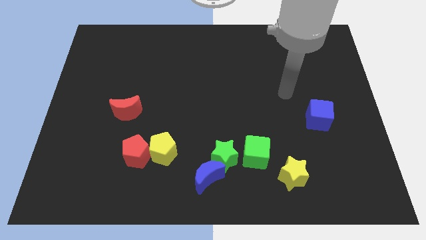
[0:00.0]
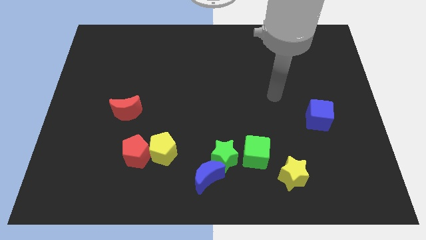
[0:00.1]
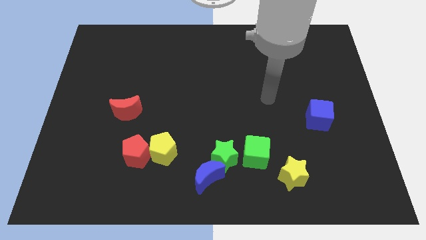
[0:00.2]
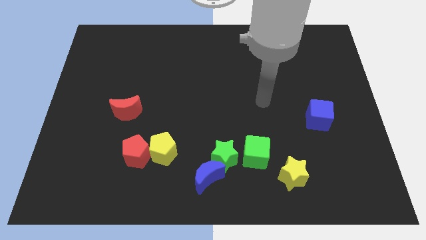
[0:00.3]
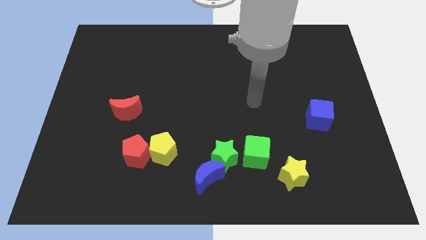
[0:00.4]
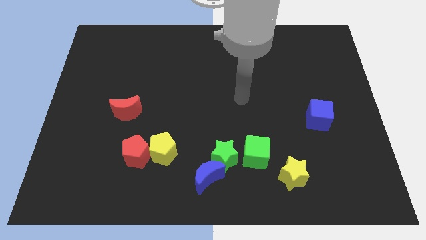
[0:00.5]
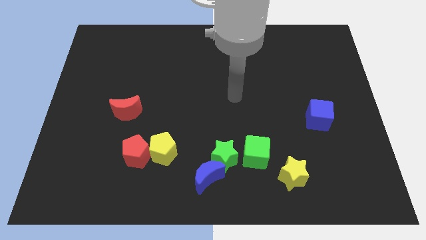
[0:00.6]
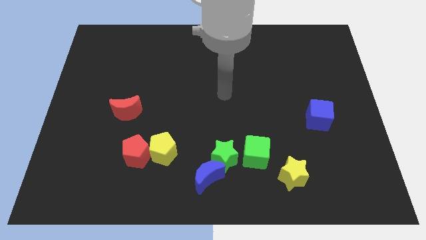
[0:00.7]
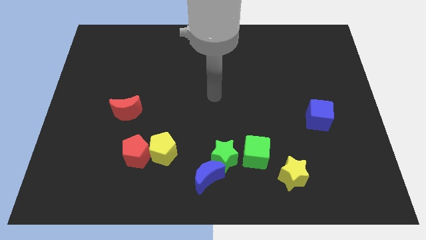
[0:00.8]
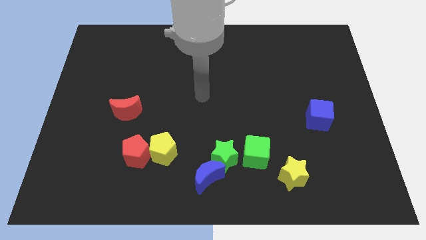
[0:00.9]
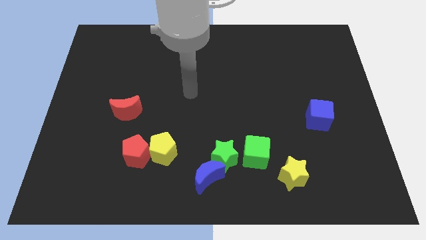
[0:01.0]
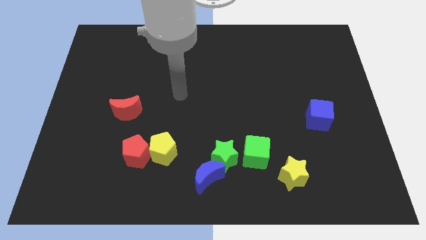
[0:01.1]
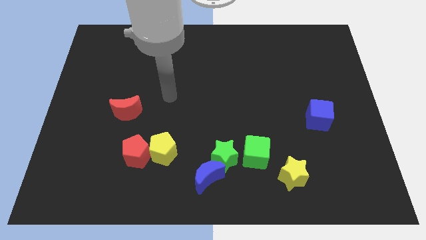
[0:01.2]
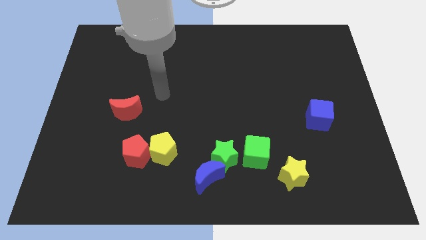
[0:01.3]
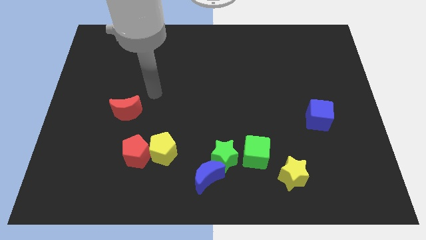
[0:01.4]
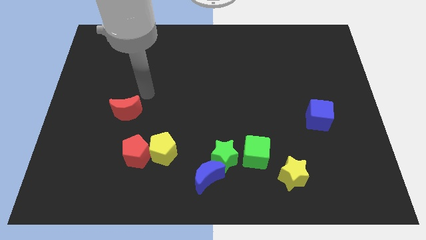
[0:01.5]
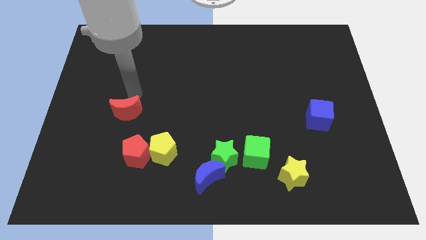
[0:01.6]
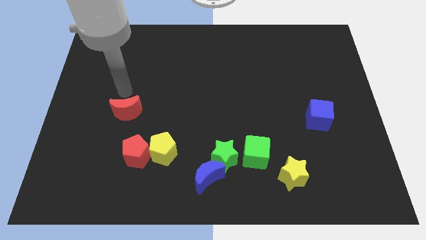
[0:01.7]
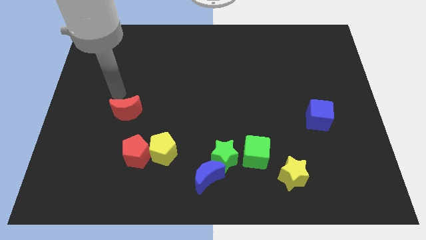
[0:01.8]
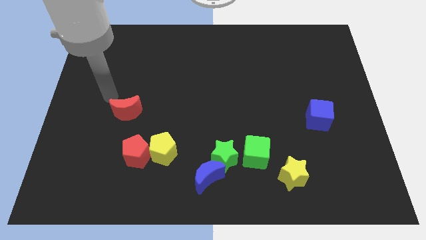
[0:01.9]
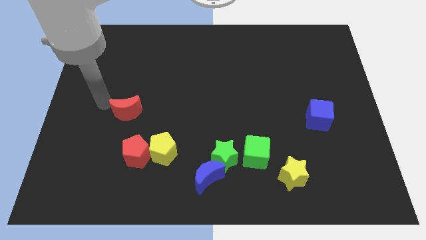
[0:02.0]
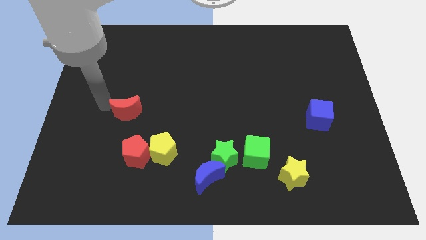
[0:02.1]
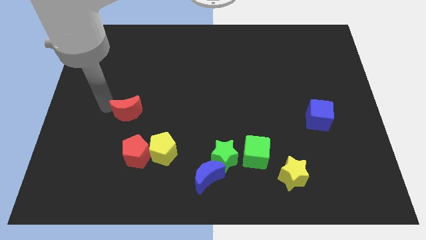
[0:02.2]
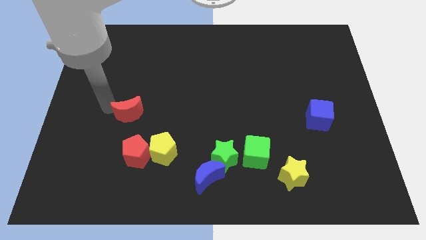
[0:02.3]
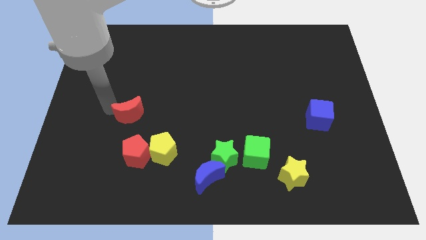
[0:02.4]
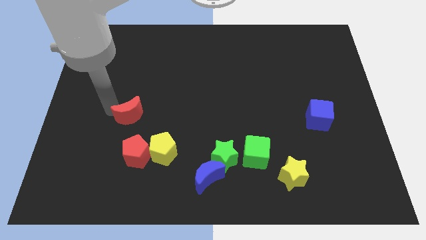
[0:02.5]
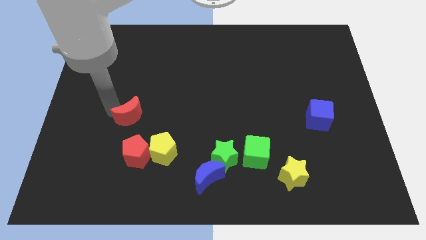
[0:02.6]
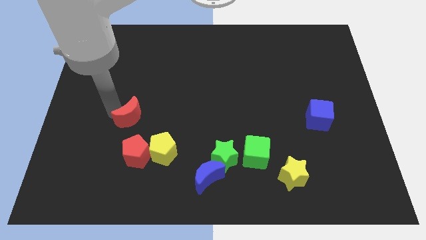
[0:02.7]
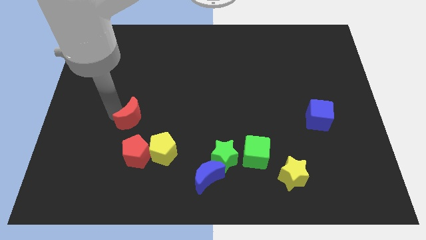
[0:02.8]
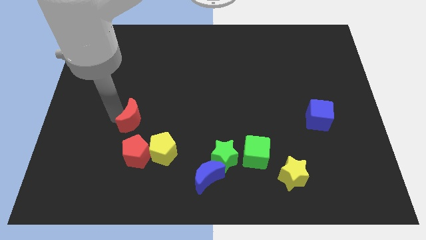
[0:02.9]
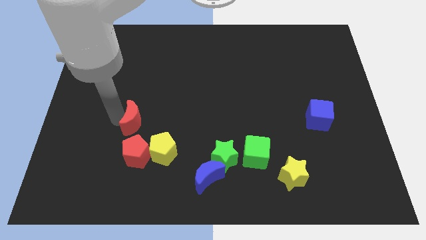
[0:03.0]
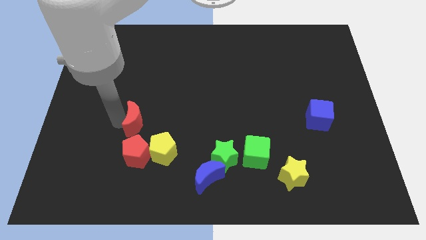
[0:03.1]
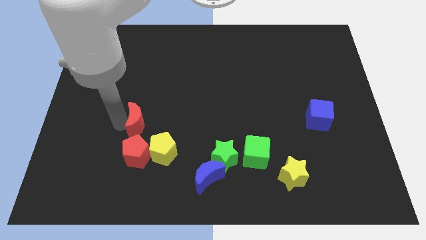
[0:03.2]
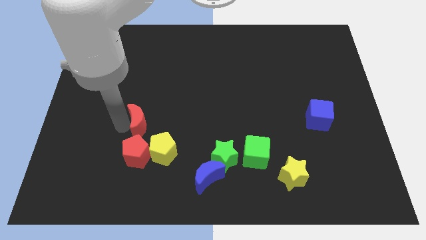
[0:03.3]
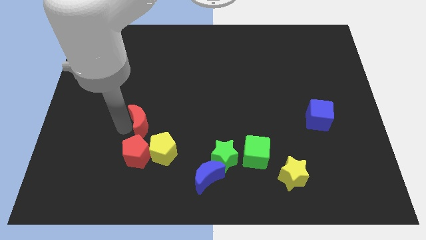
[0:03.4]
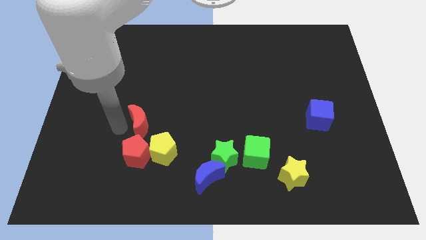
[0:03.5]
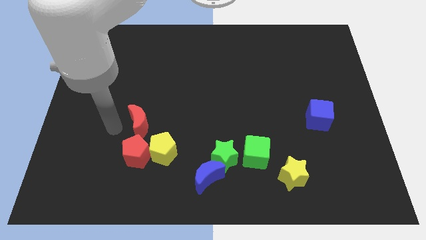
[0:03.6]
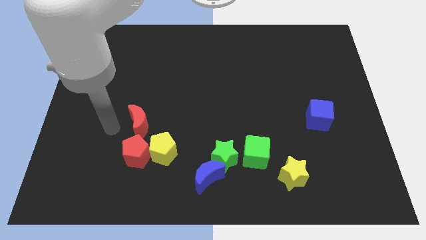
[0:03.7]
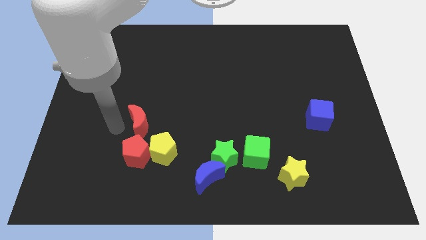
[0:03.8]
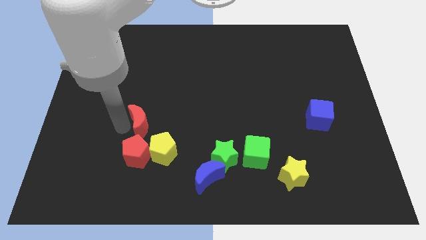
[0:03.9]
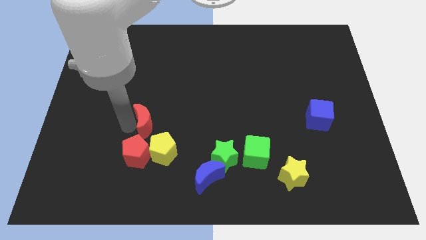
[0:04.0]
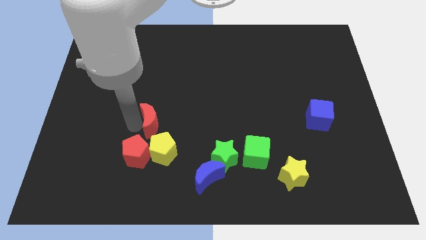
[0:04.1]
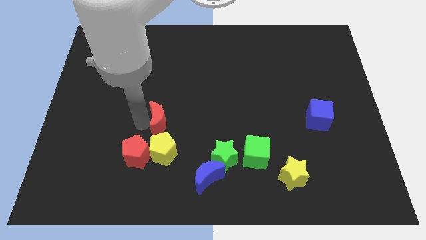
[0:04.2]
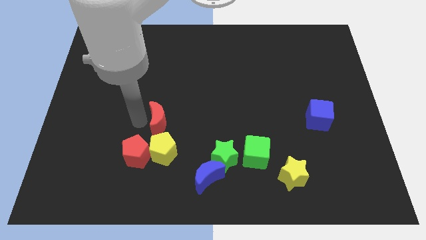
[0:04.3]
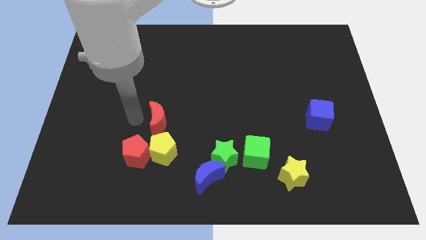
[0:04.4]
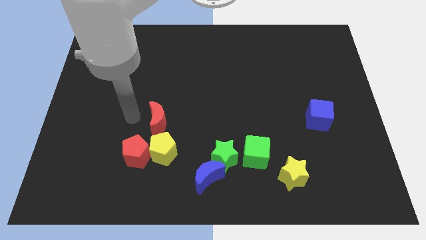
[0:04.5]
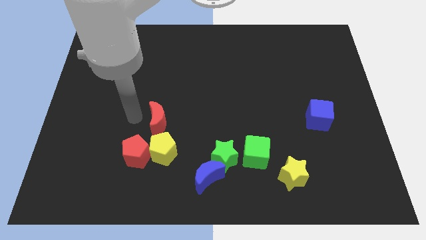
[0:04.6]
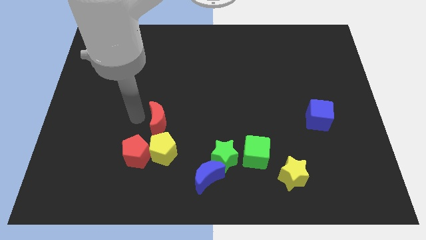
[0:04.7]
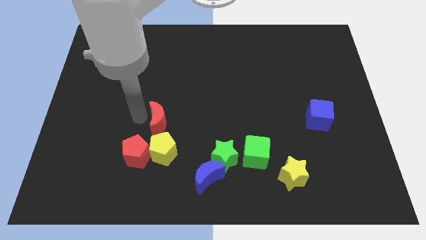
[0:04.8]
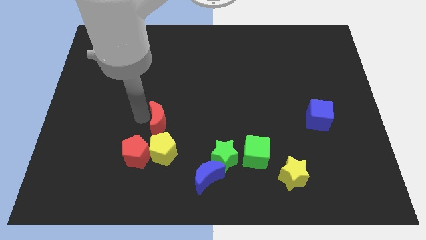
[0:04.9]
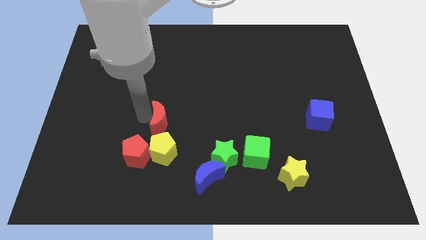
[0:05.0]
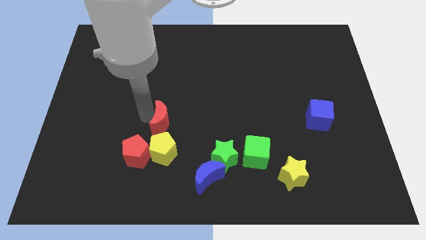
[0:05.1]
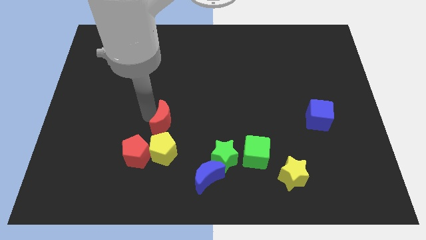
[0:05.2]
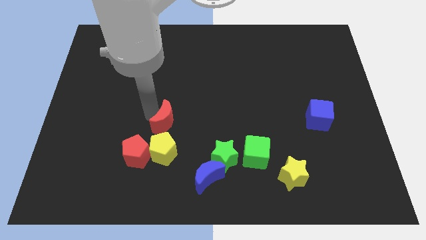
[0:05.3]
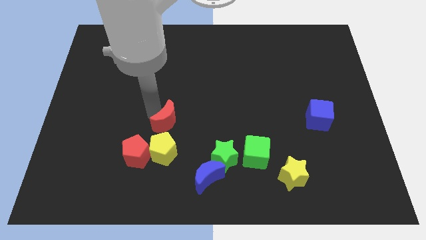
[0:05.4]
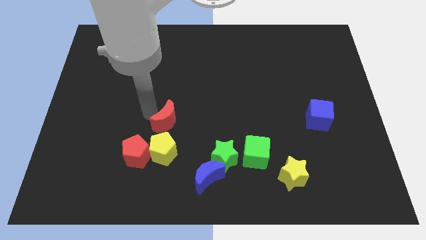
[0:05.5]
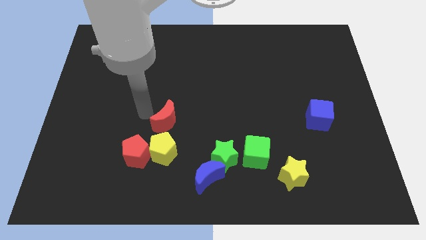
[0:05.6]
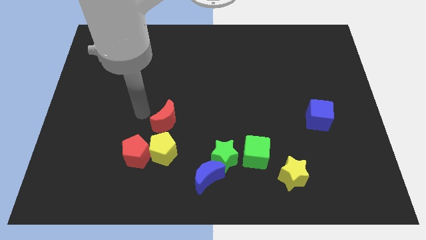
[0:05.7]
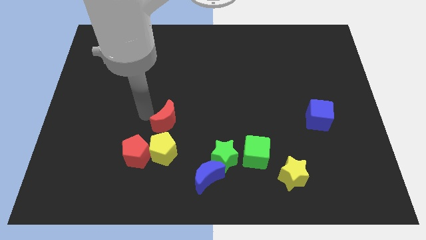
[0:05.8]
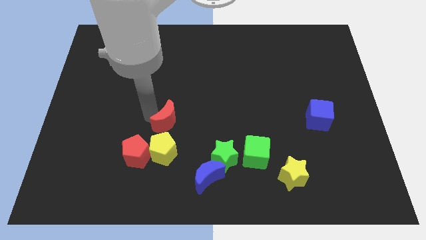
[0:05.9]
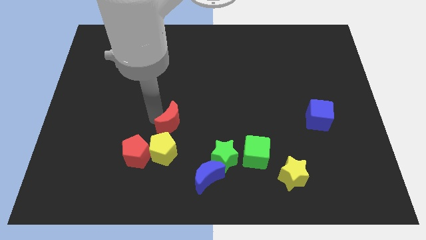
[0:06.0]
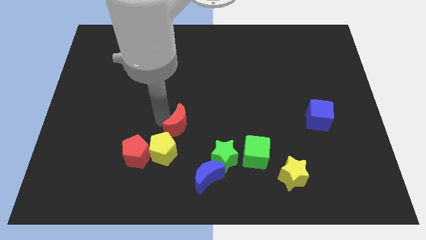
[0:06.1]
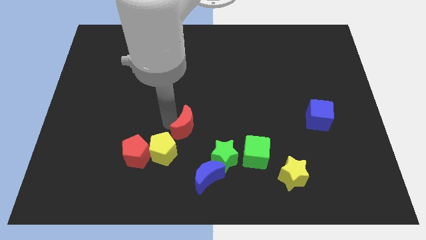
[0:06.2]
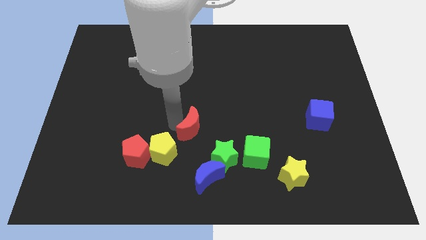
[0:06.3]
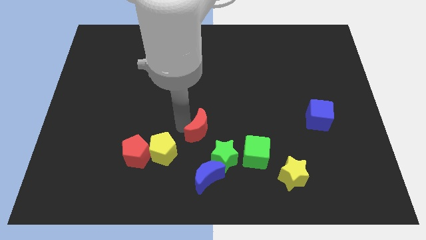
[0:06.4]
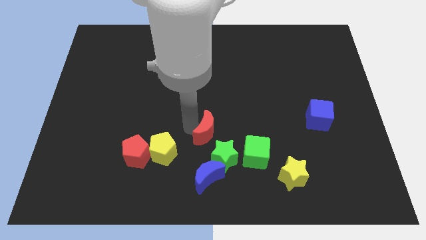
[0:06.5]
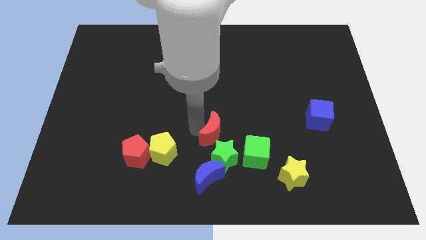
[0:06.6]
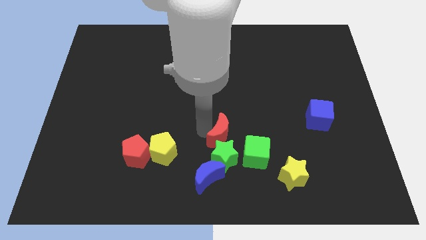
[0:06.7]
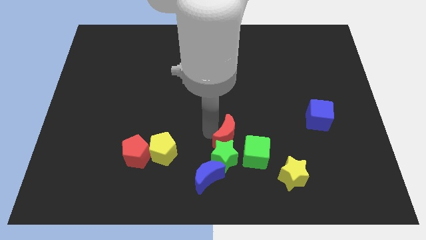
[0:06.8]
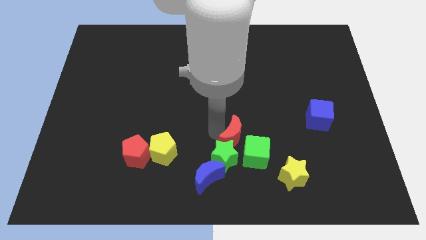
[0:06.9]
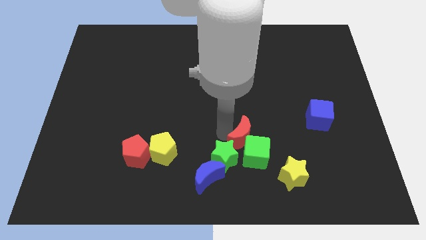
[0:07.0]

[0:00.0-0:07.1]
slide the red moon close to the green cube

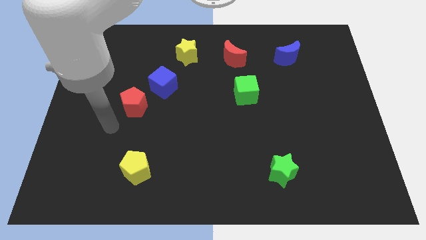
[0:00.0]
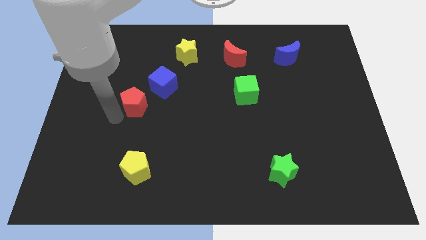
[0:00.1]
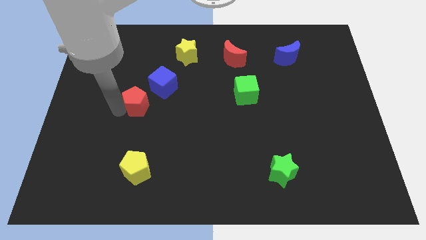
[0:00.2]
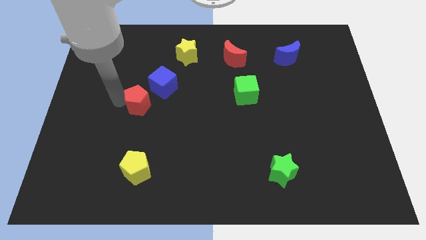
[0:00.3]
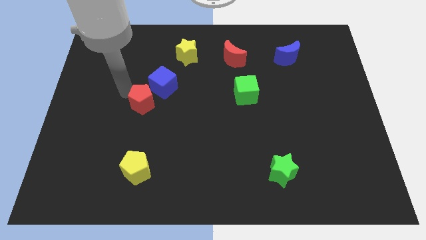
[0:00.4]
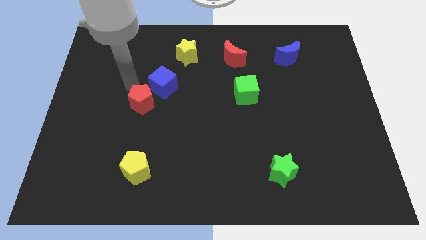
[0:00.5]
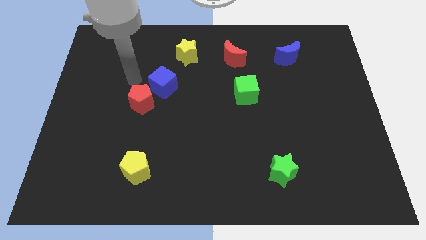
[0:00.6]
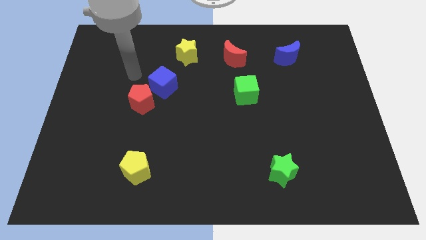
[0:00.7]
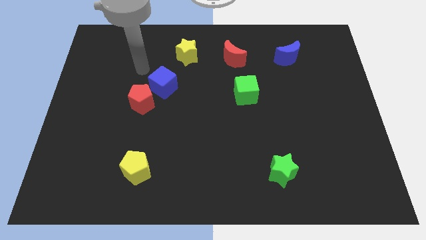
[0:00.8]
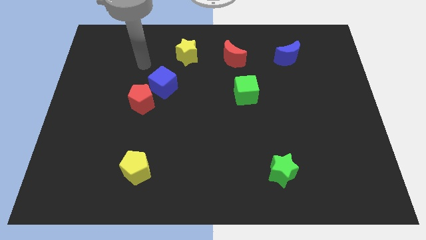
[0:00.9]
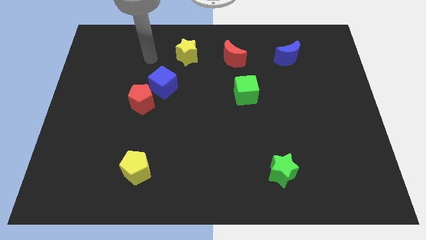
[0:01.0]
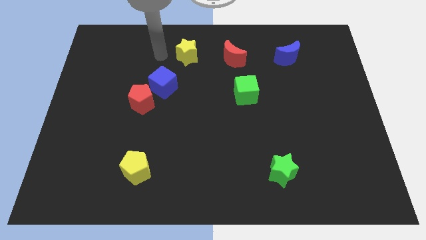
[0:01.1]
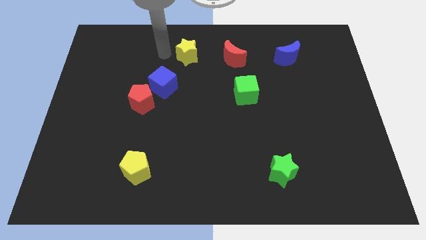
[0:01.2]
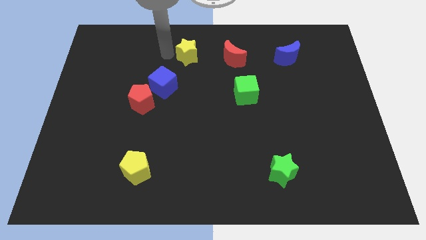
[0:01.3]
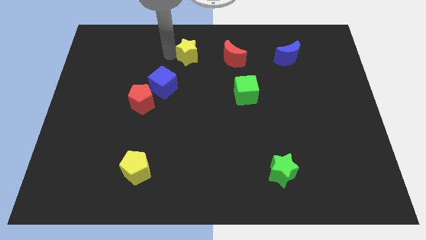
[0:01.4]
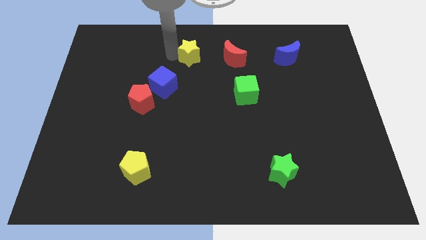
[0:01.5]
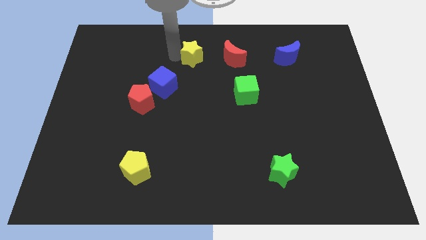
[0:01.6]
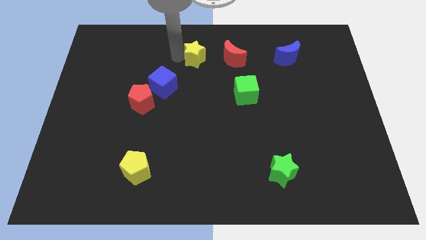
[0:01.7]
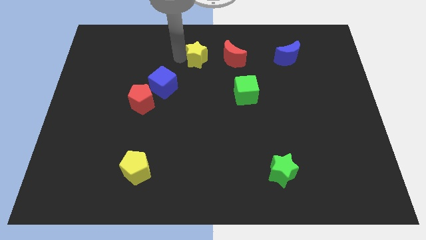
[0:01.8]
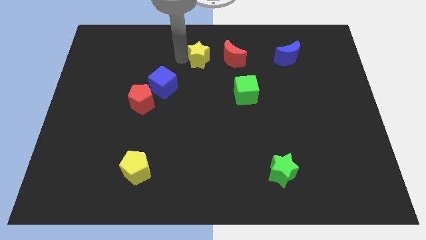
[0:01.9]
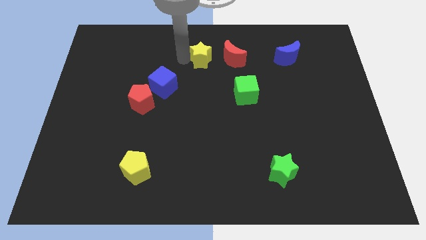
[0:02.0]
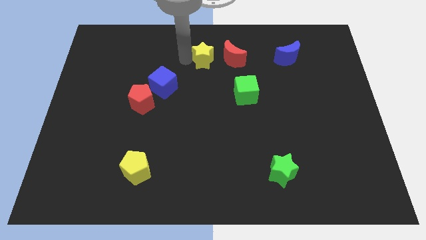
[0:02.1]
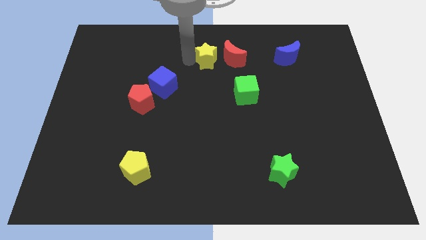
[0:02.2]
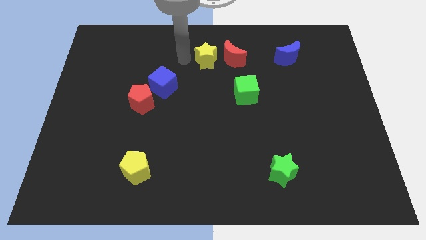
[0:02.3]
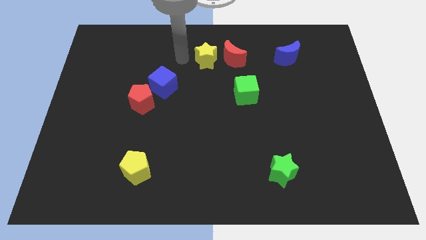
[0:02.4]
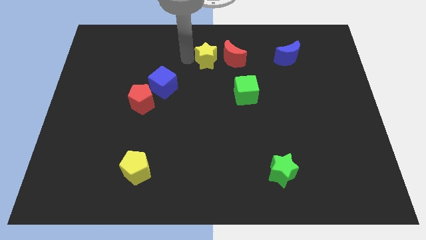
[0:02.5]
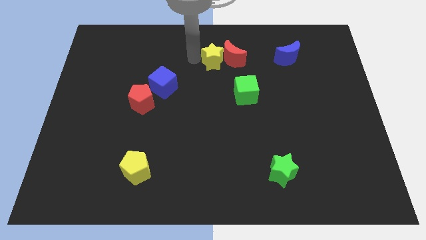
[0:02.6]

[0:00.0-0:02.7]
push the yellow star to the red moon
